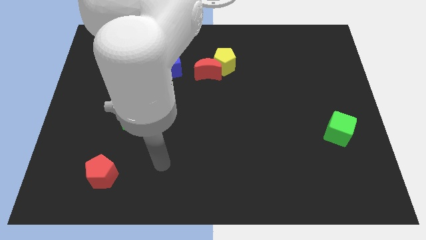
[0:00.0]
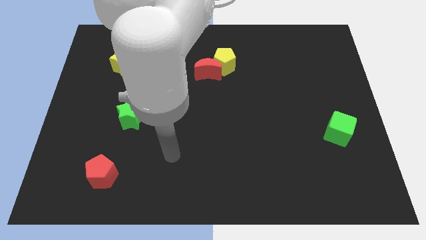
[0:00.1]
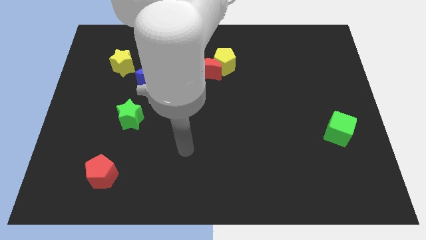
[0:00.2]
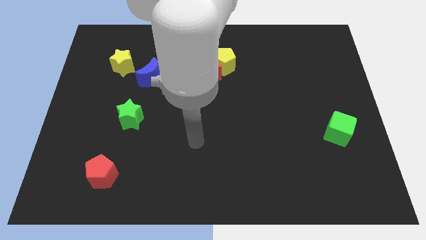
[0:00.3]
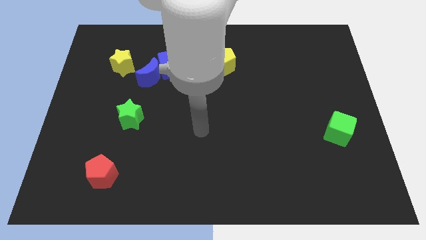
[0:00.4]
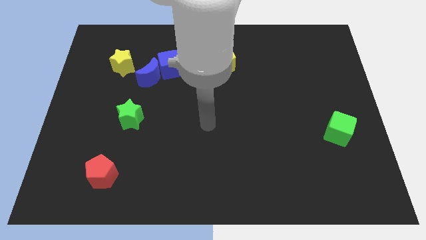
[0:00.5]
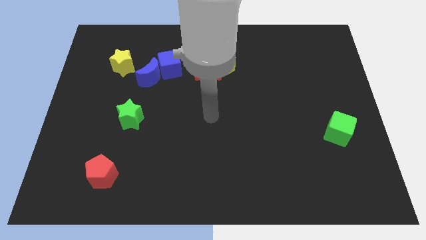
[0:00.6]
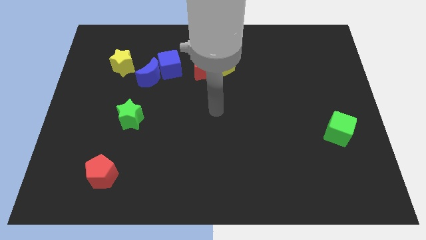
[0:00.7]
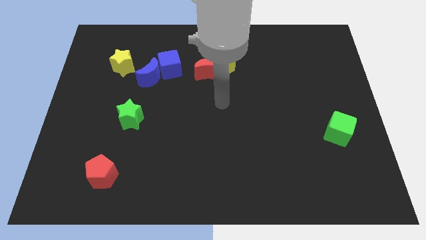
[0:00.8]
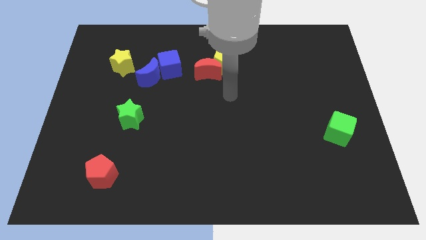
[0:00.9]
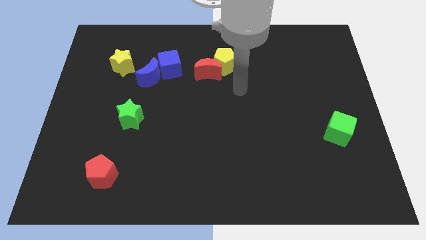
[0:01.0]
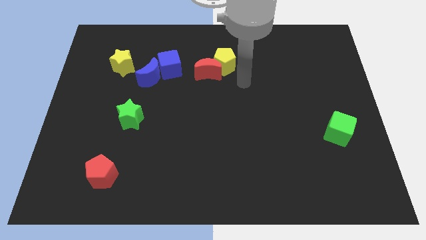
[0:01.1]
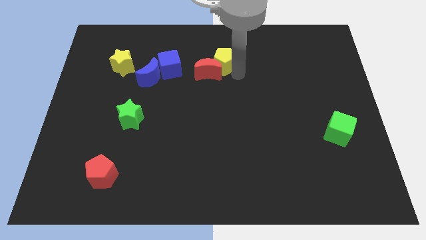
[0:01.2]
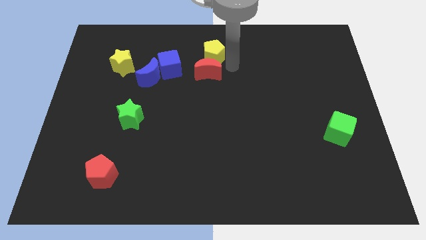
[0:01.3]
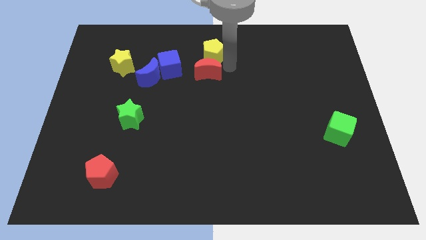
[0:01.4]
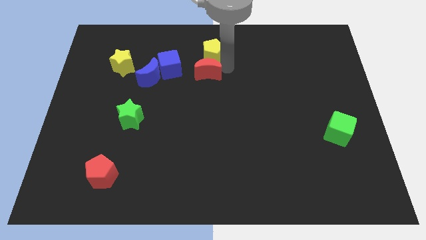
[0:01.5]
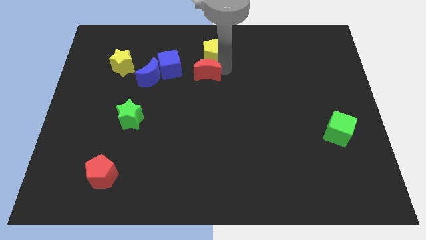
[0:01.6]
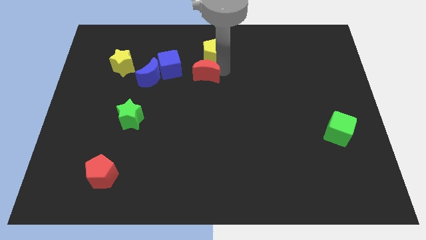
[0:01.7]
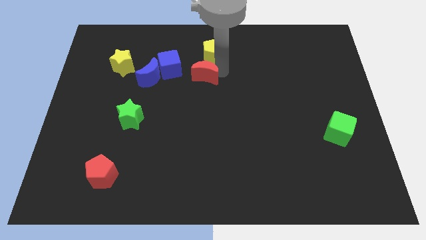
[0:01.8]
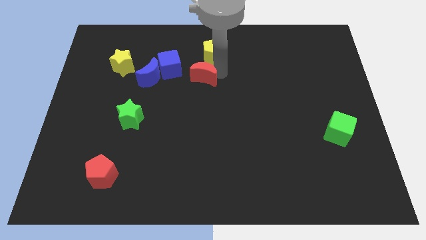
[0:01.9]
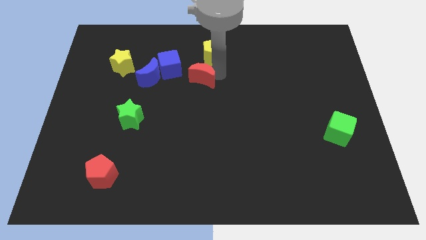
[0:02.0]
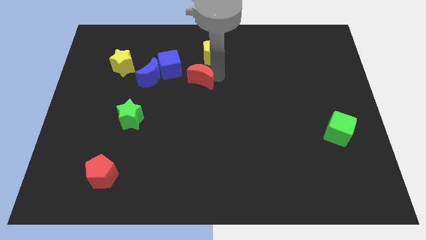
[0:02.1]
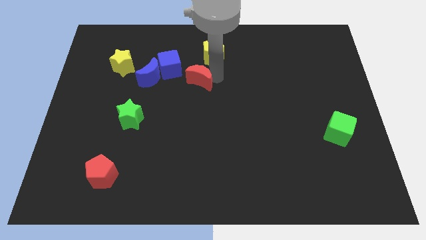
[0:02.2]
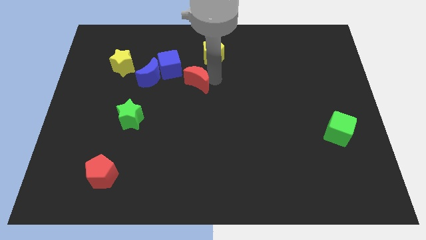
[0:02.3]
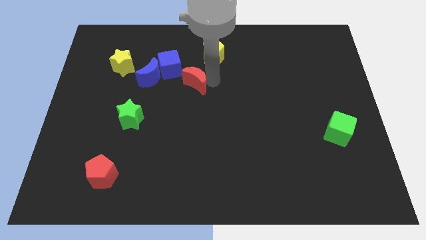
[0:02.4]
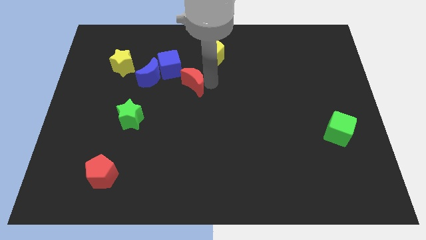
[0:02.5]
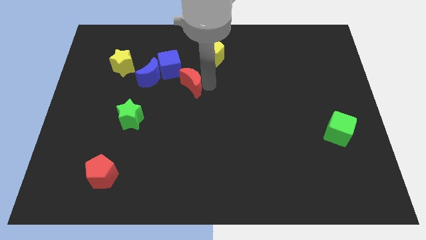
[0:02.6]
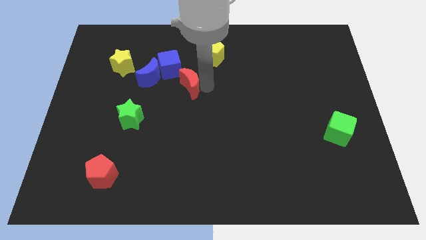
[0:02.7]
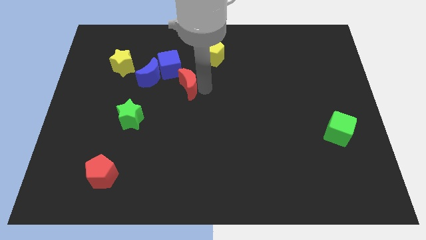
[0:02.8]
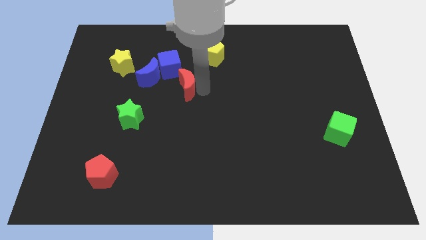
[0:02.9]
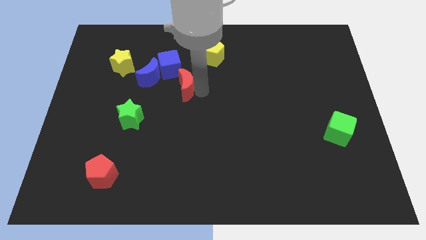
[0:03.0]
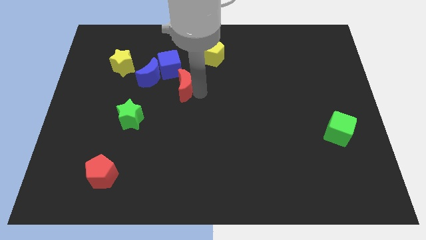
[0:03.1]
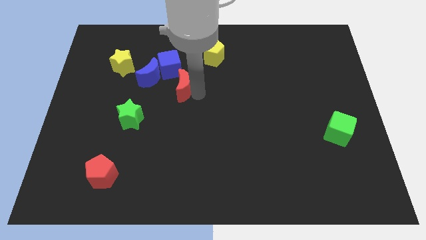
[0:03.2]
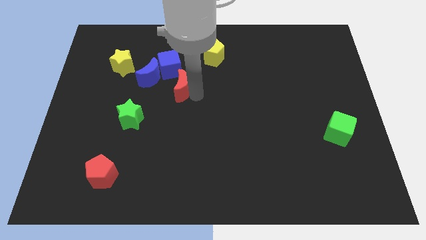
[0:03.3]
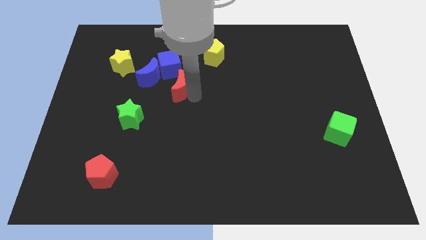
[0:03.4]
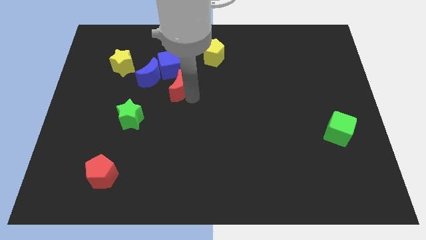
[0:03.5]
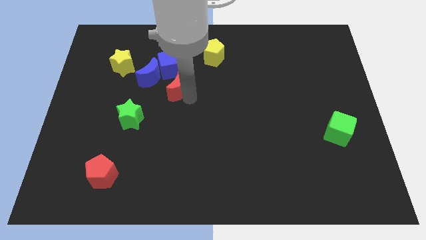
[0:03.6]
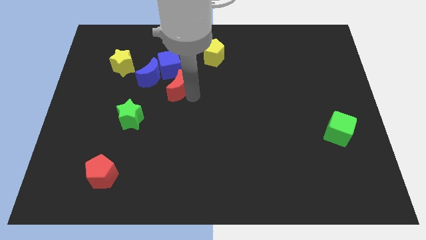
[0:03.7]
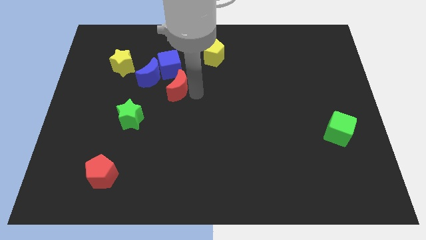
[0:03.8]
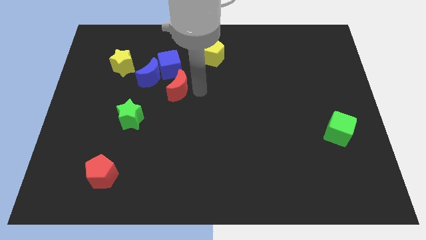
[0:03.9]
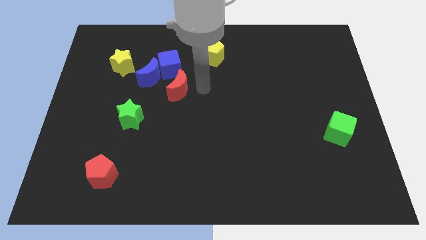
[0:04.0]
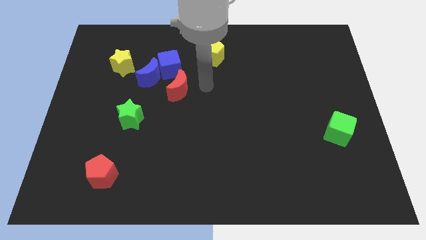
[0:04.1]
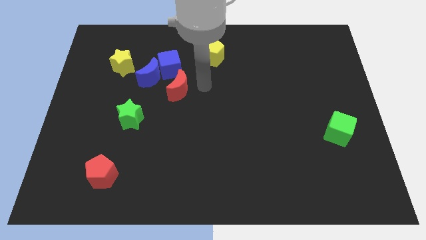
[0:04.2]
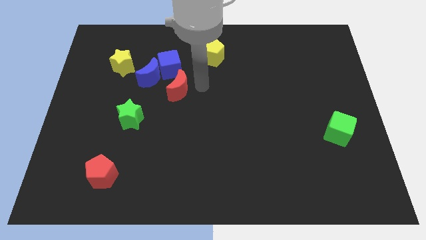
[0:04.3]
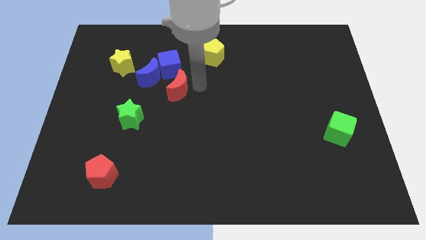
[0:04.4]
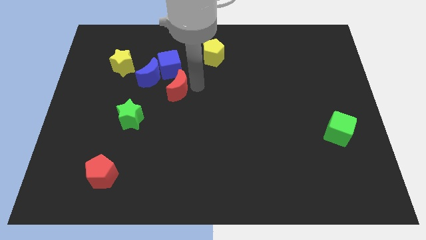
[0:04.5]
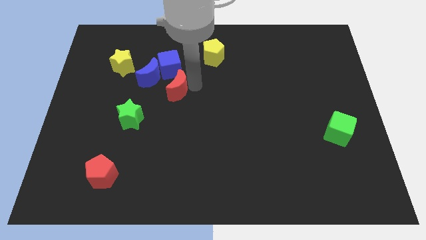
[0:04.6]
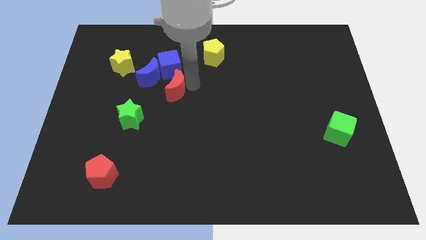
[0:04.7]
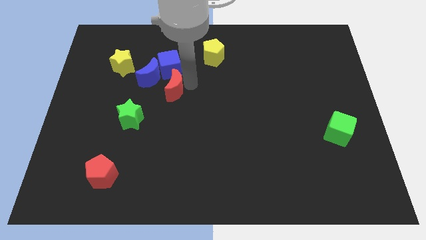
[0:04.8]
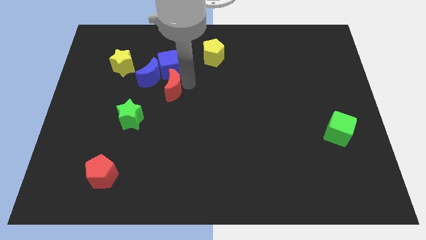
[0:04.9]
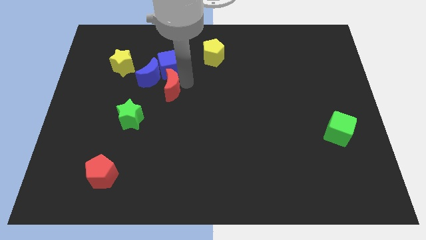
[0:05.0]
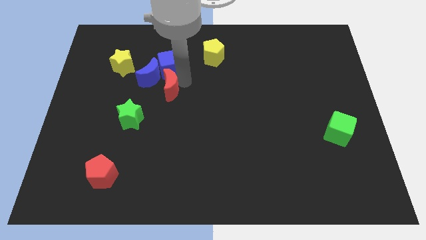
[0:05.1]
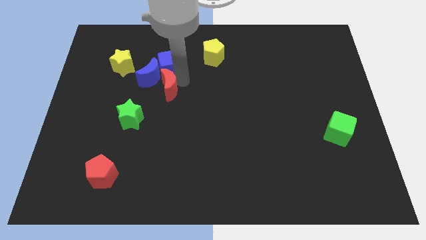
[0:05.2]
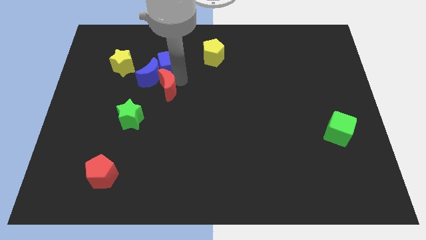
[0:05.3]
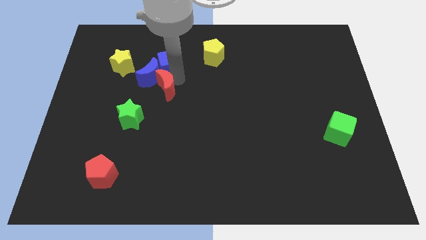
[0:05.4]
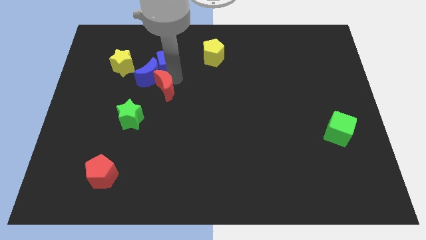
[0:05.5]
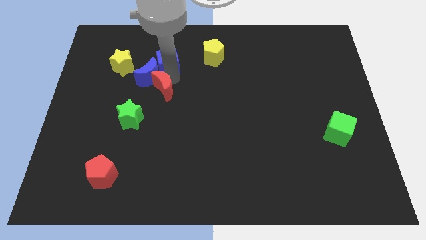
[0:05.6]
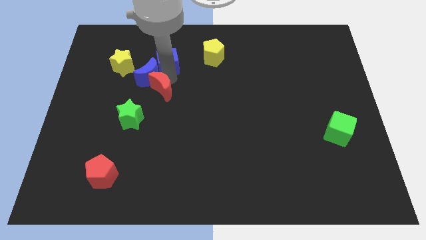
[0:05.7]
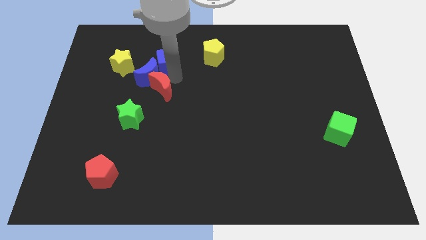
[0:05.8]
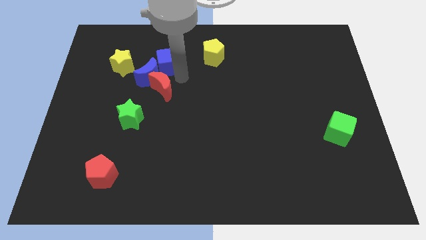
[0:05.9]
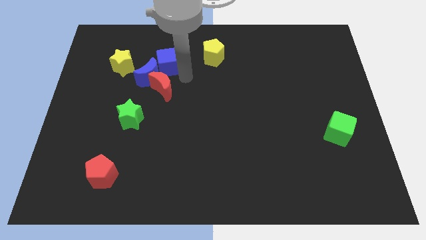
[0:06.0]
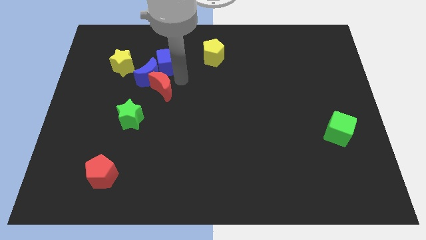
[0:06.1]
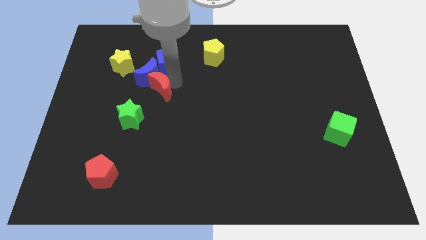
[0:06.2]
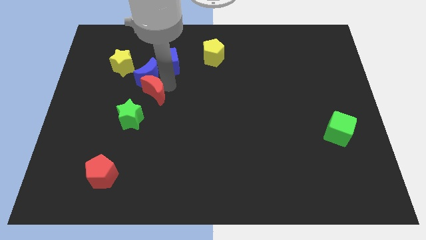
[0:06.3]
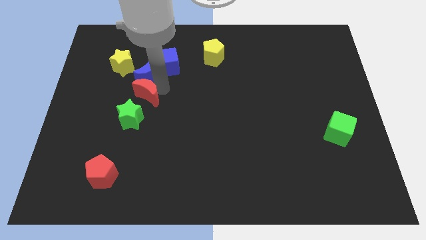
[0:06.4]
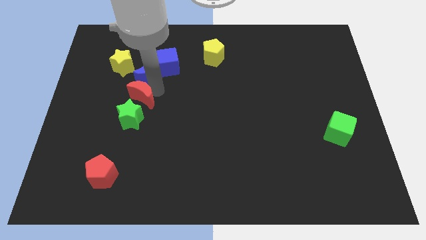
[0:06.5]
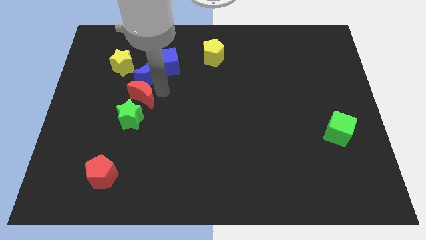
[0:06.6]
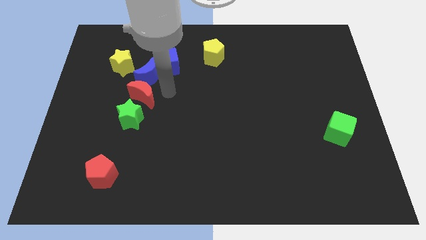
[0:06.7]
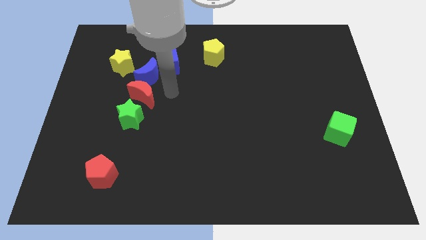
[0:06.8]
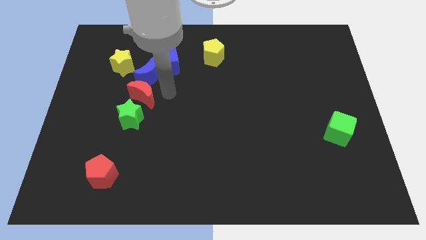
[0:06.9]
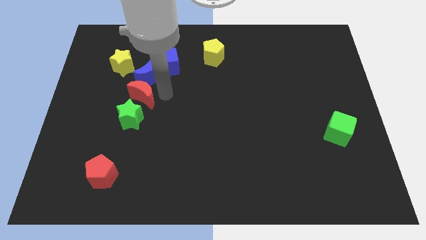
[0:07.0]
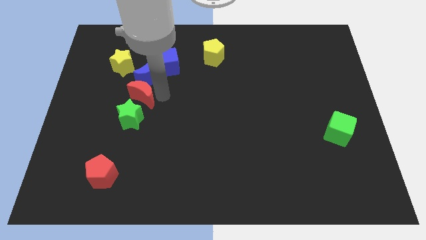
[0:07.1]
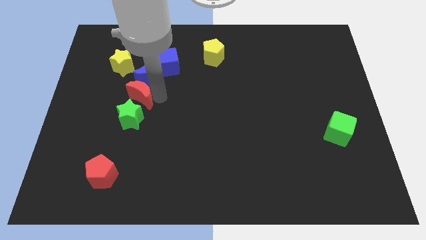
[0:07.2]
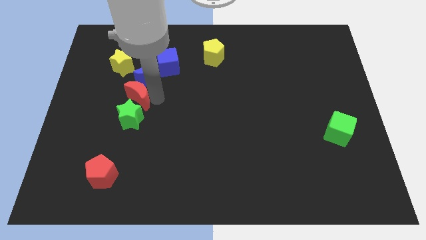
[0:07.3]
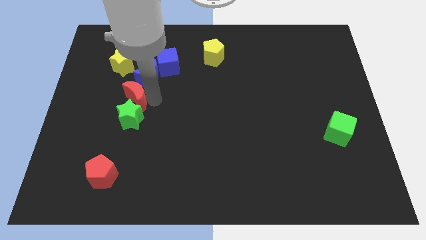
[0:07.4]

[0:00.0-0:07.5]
slide the red moon diagonally up and to the left of the green star
